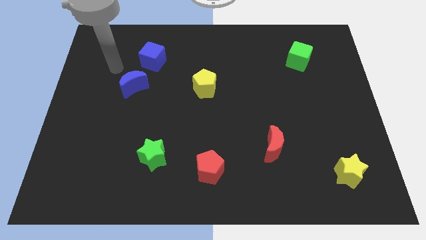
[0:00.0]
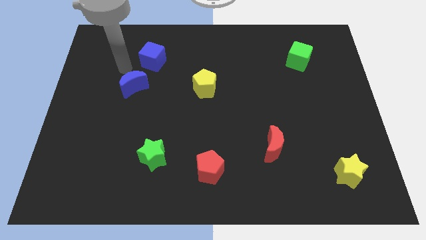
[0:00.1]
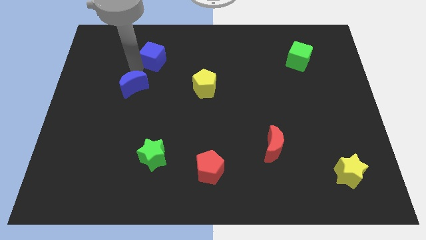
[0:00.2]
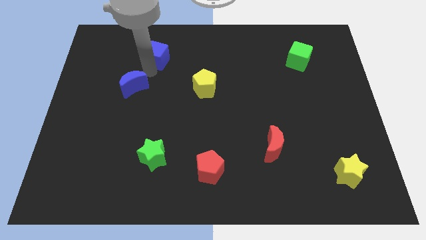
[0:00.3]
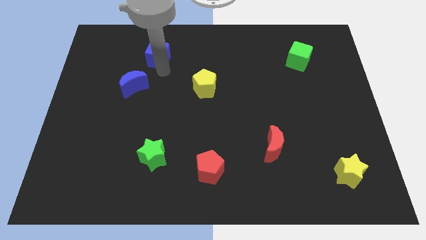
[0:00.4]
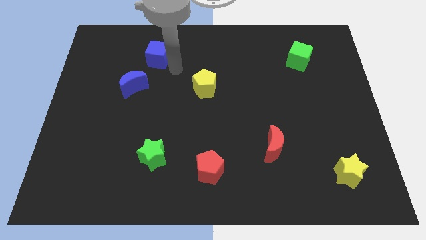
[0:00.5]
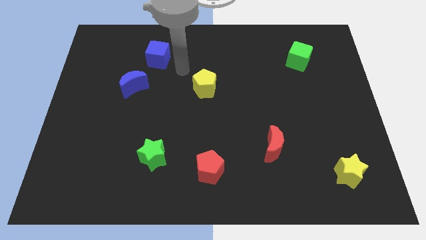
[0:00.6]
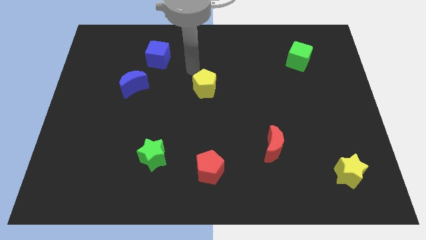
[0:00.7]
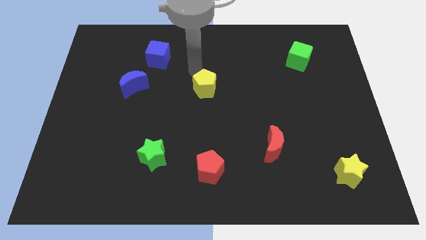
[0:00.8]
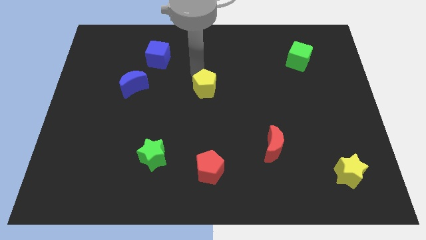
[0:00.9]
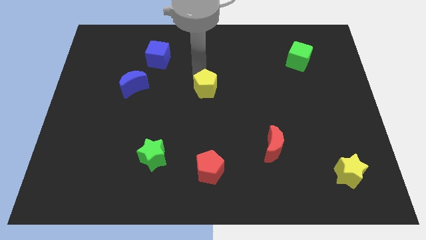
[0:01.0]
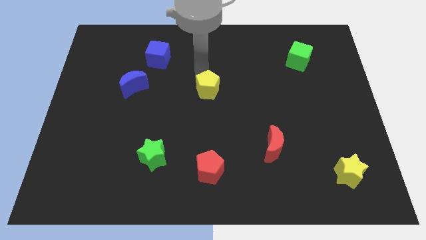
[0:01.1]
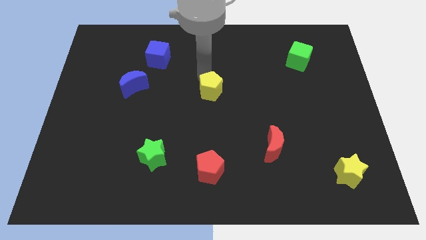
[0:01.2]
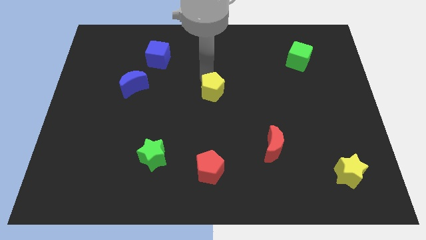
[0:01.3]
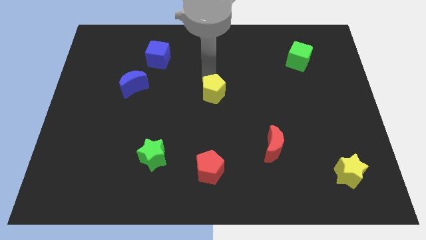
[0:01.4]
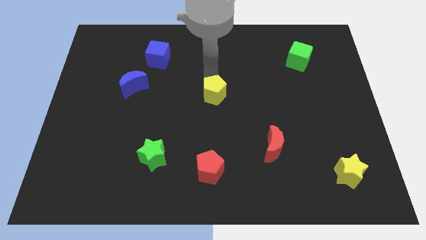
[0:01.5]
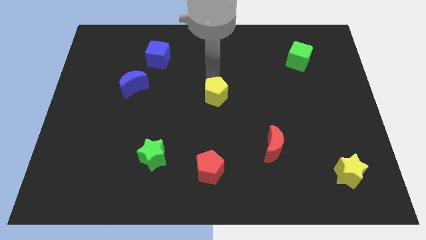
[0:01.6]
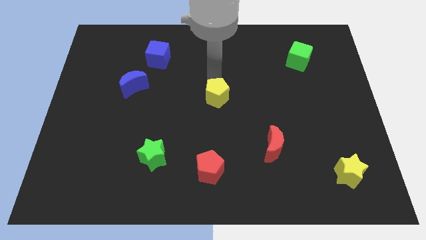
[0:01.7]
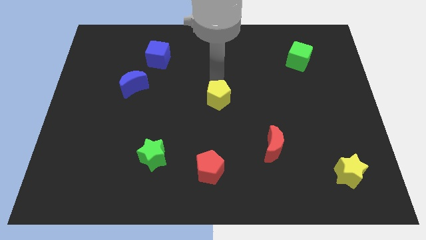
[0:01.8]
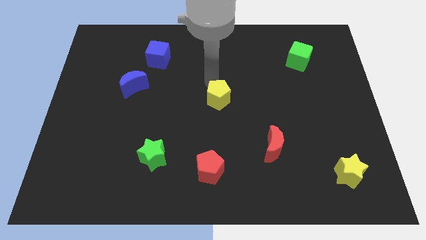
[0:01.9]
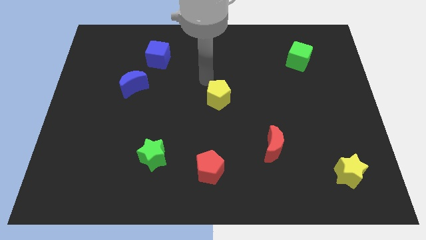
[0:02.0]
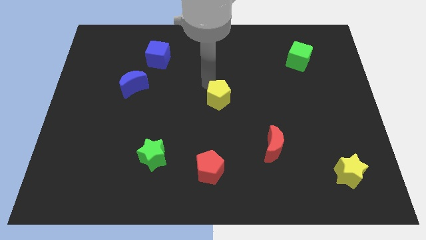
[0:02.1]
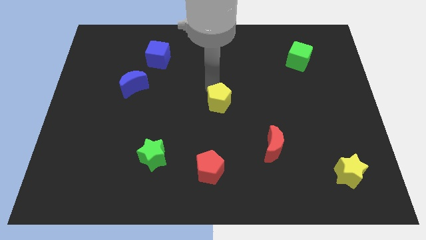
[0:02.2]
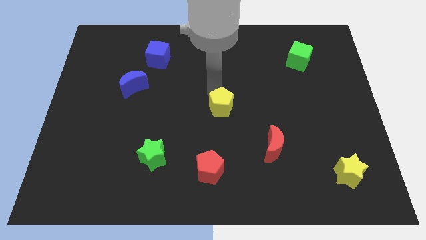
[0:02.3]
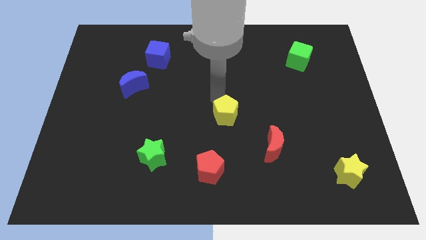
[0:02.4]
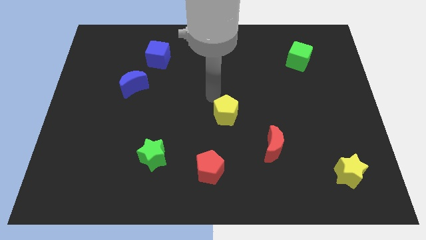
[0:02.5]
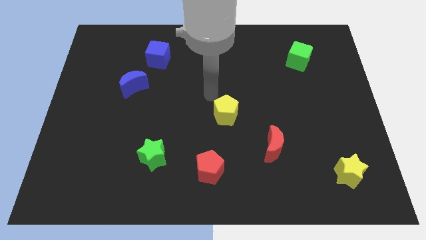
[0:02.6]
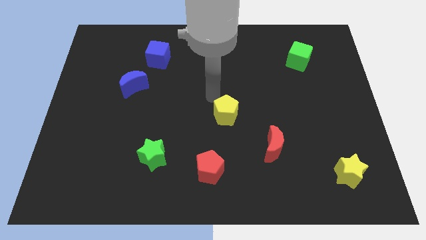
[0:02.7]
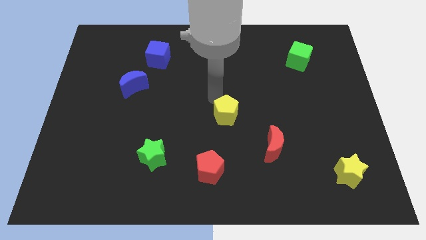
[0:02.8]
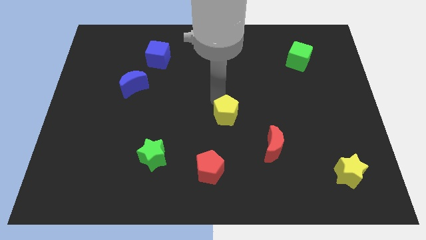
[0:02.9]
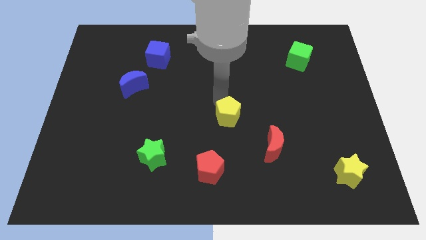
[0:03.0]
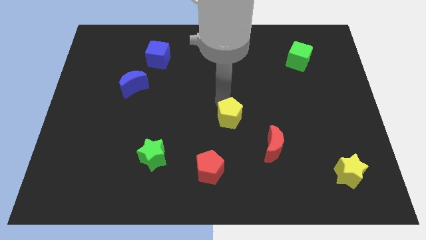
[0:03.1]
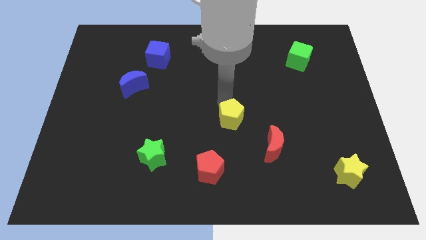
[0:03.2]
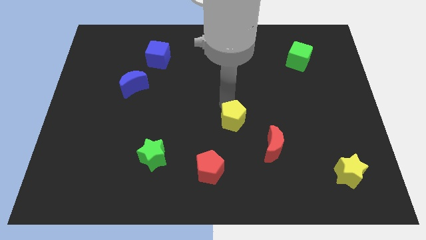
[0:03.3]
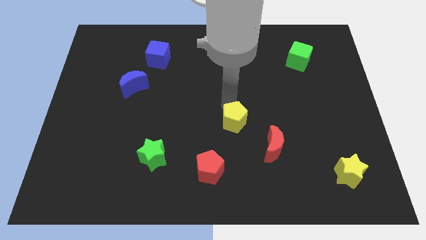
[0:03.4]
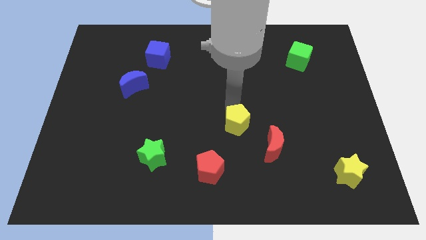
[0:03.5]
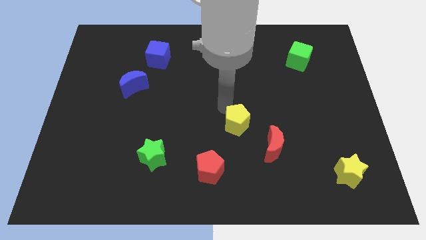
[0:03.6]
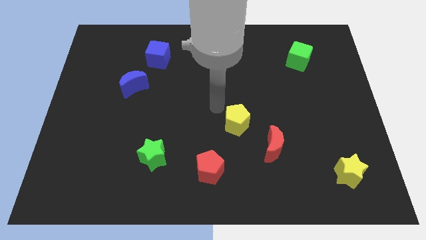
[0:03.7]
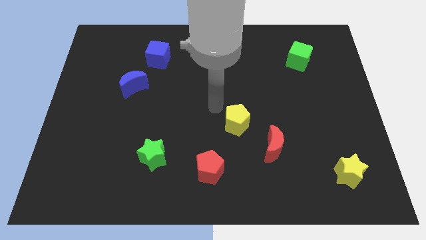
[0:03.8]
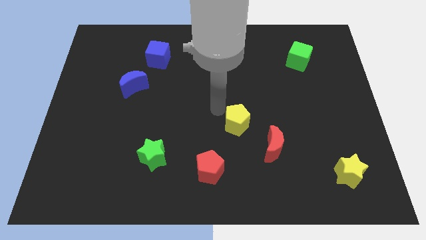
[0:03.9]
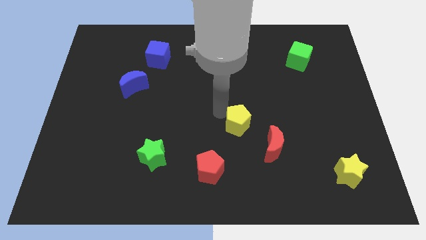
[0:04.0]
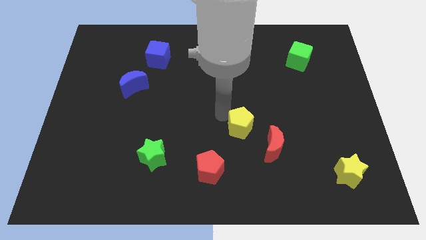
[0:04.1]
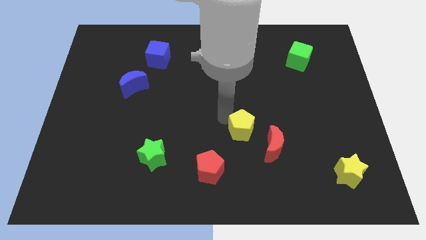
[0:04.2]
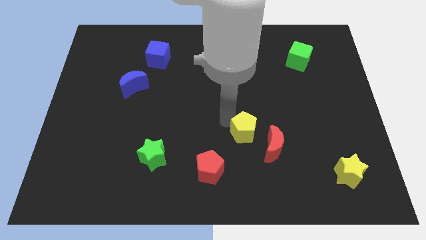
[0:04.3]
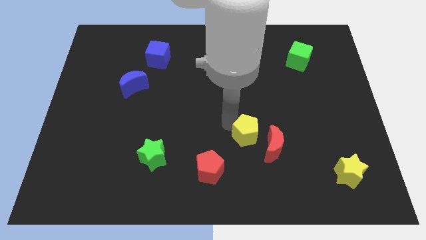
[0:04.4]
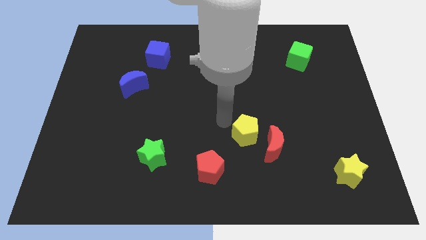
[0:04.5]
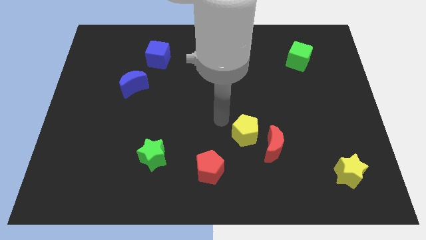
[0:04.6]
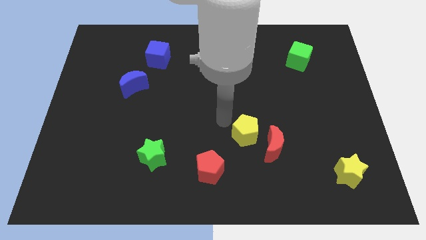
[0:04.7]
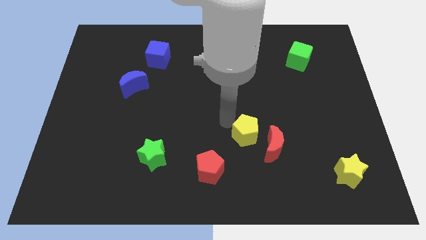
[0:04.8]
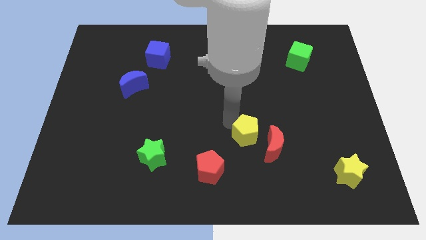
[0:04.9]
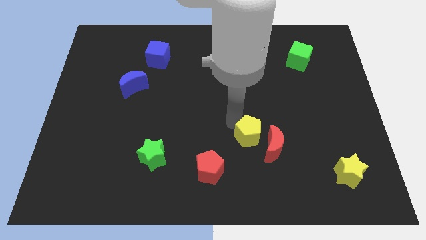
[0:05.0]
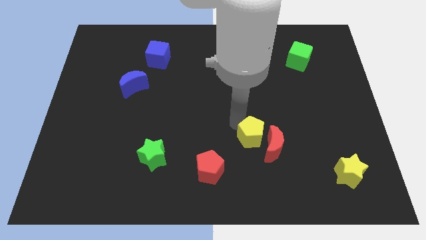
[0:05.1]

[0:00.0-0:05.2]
move the yellow pentagon close to the red moon

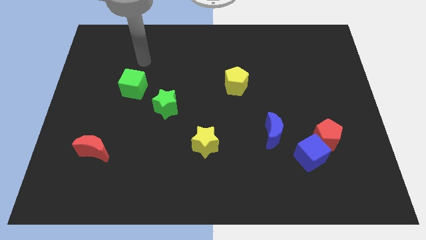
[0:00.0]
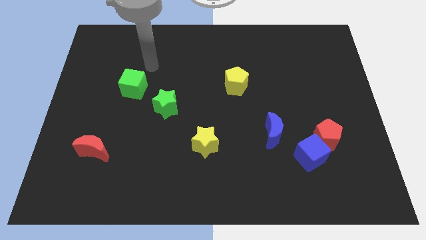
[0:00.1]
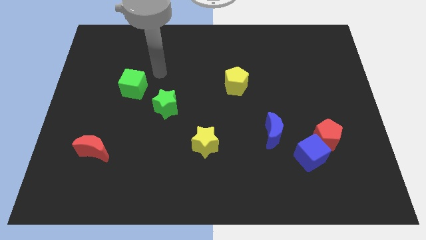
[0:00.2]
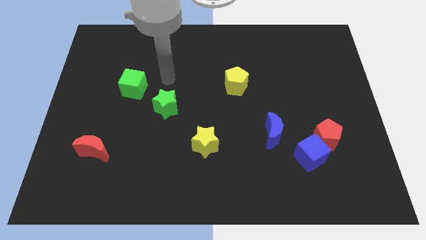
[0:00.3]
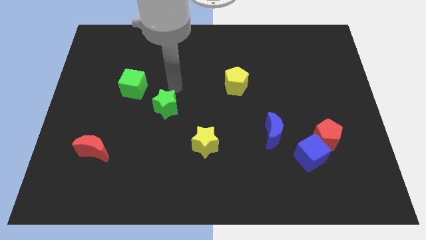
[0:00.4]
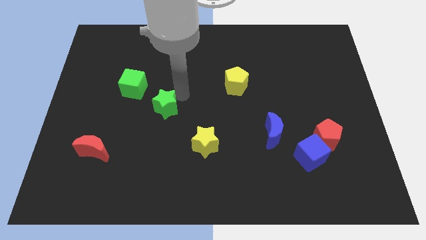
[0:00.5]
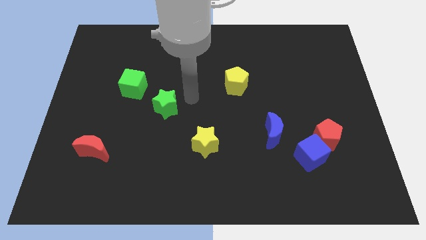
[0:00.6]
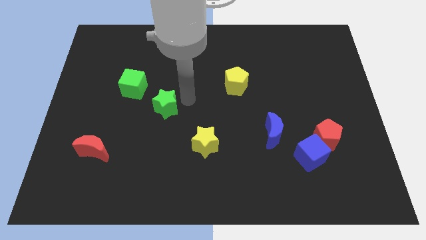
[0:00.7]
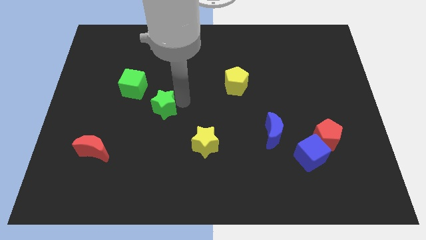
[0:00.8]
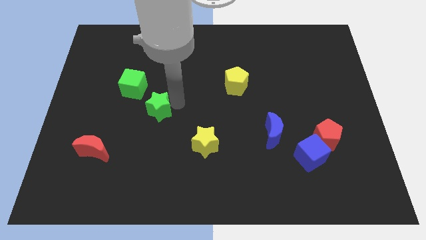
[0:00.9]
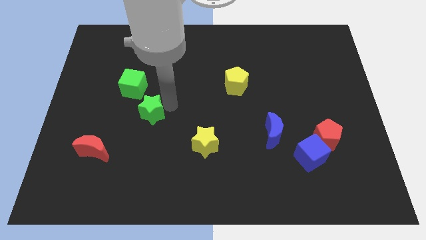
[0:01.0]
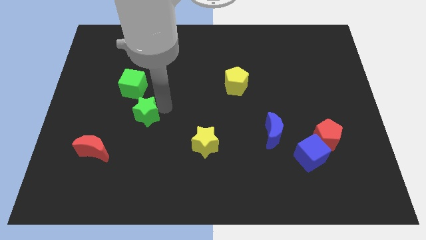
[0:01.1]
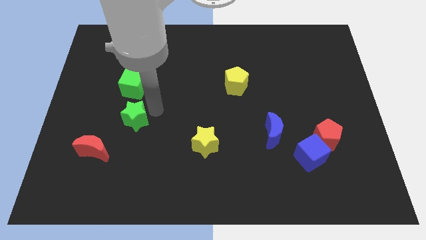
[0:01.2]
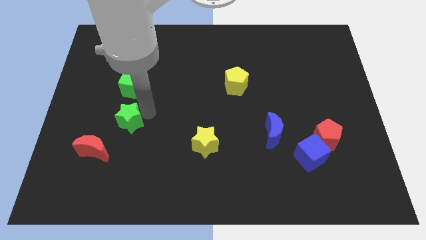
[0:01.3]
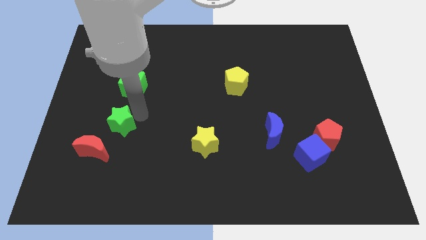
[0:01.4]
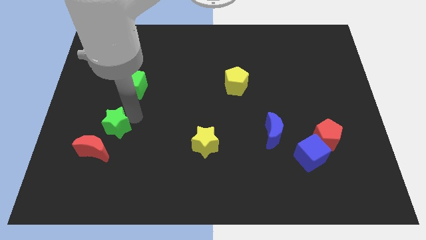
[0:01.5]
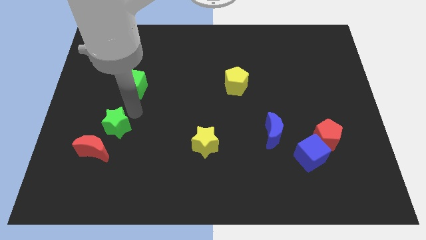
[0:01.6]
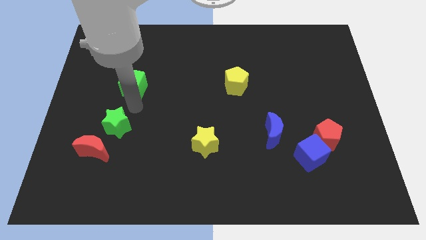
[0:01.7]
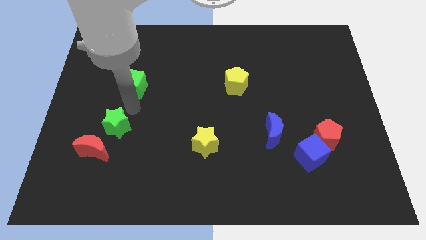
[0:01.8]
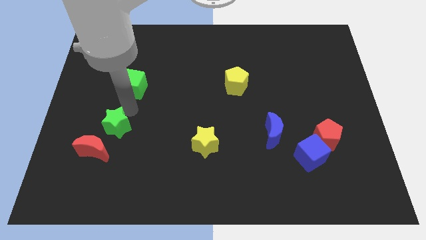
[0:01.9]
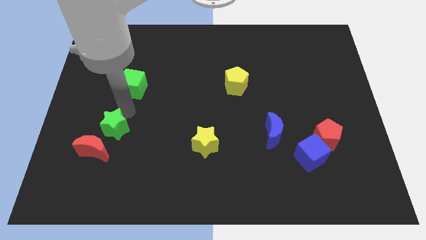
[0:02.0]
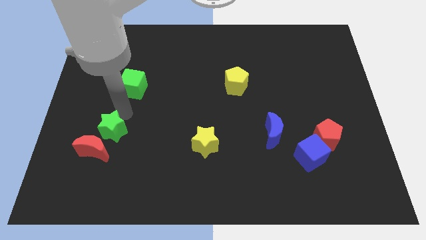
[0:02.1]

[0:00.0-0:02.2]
slide the green star to the red moon
